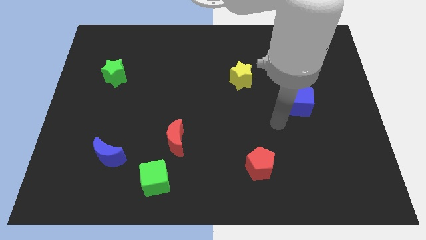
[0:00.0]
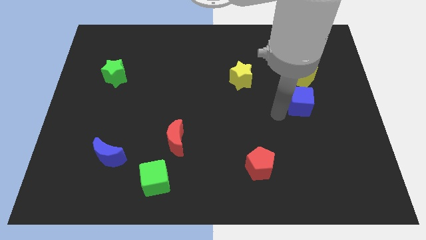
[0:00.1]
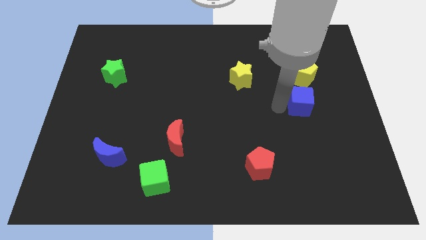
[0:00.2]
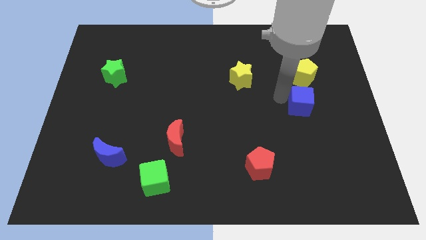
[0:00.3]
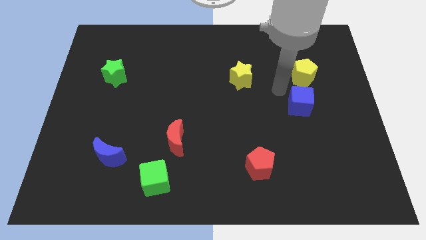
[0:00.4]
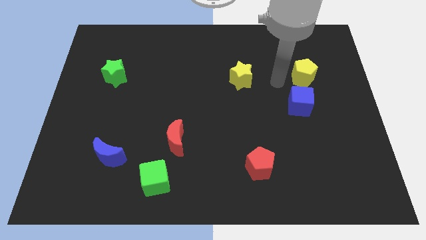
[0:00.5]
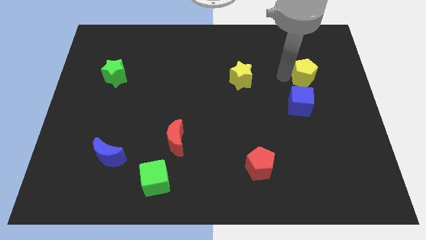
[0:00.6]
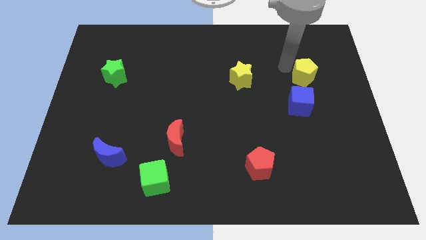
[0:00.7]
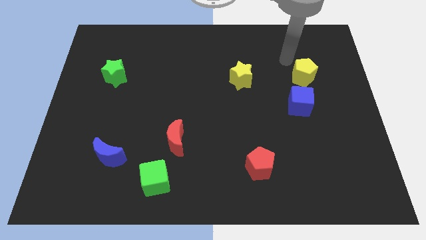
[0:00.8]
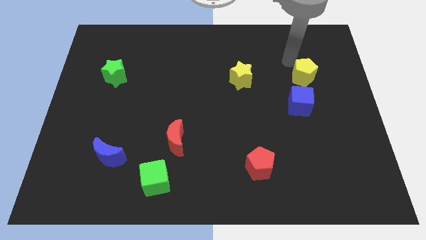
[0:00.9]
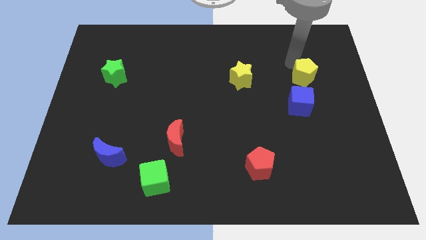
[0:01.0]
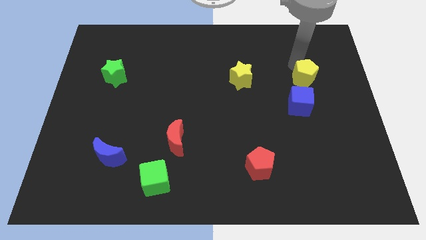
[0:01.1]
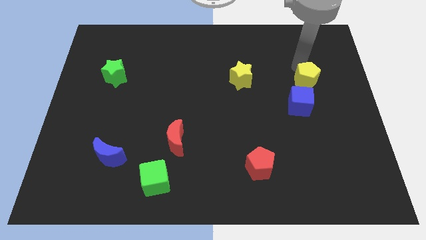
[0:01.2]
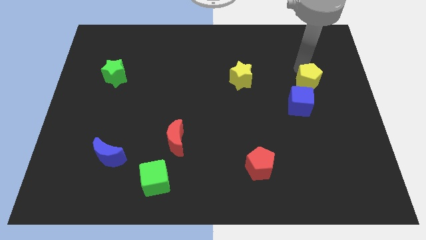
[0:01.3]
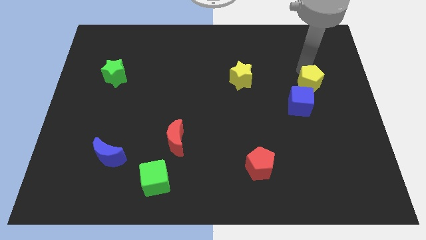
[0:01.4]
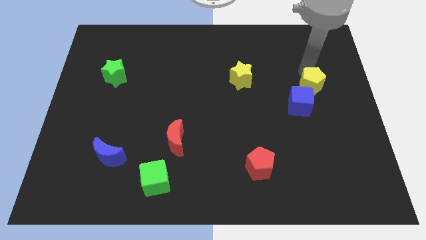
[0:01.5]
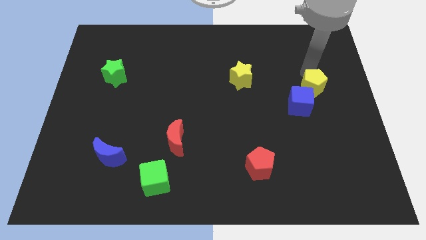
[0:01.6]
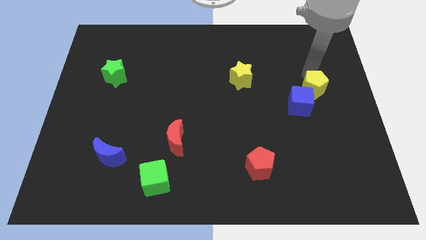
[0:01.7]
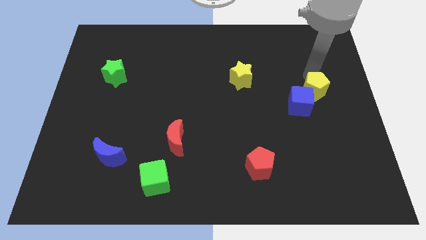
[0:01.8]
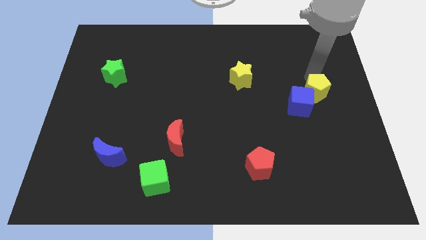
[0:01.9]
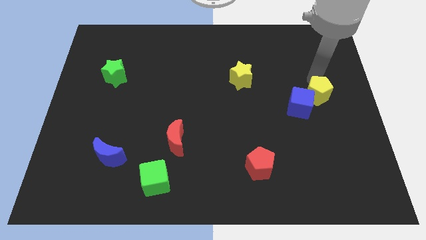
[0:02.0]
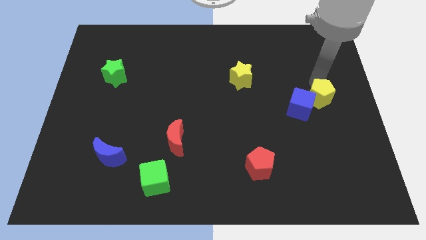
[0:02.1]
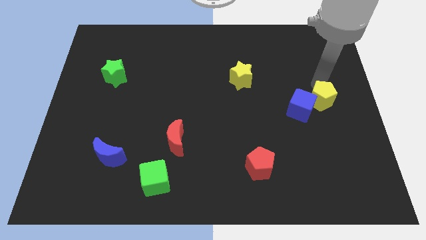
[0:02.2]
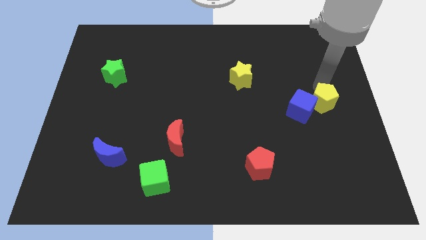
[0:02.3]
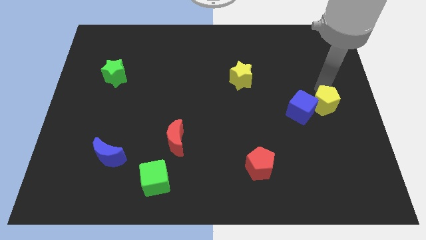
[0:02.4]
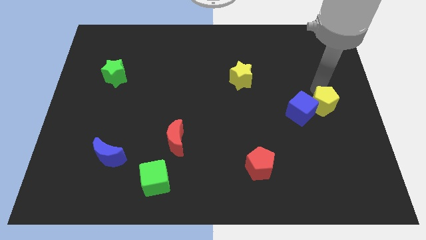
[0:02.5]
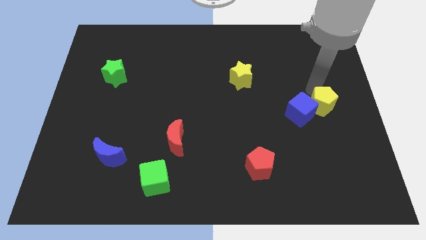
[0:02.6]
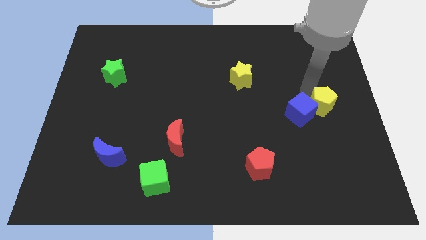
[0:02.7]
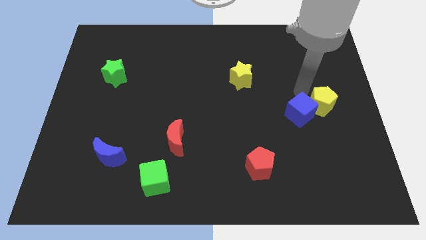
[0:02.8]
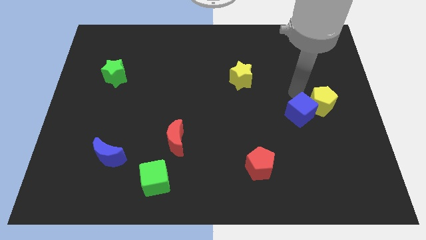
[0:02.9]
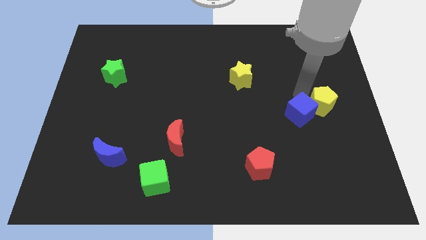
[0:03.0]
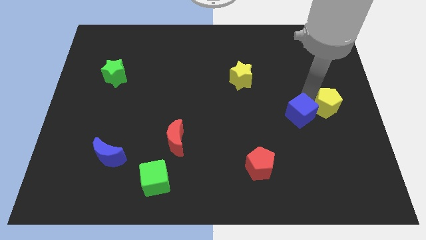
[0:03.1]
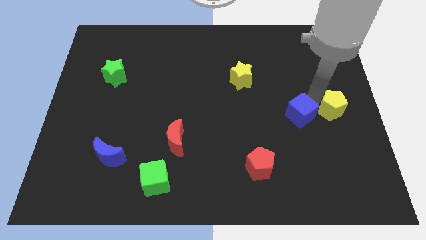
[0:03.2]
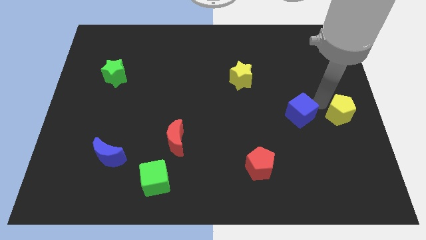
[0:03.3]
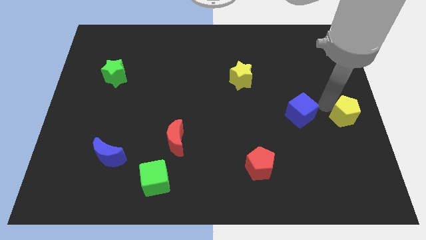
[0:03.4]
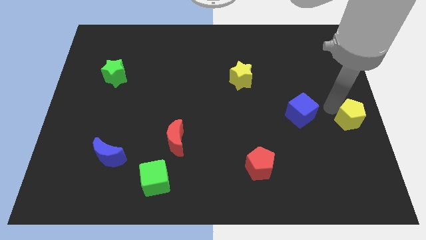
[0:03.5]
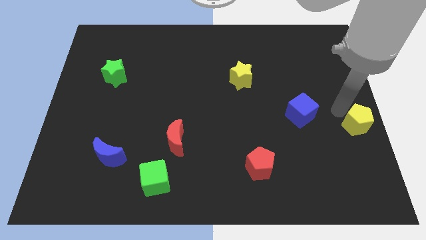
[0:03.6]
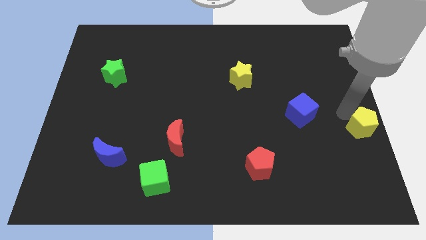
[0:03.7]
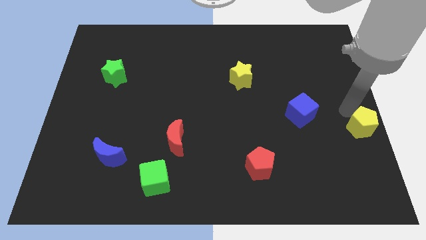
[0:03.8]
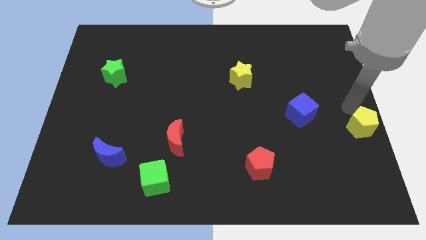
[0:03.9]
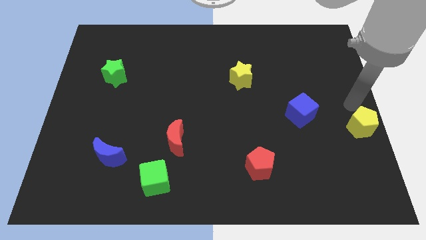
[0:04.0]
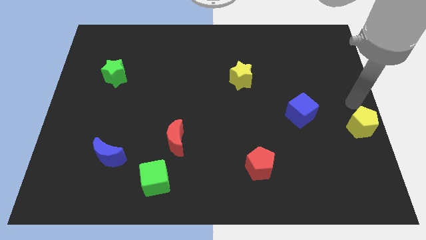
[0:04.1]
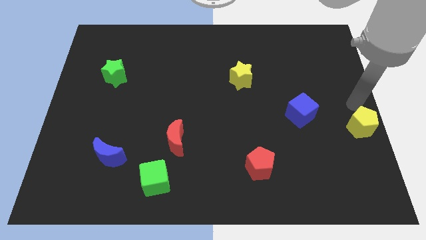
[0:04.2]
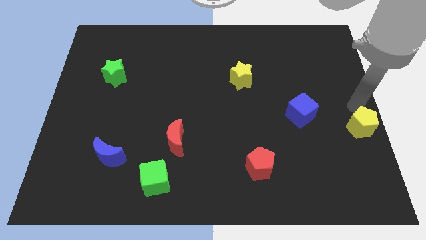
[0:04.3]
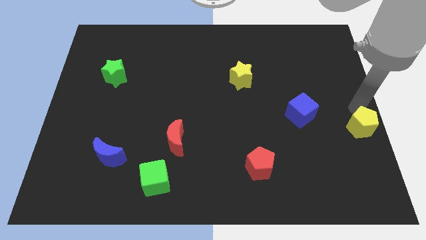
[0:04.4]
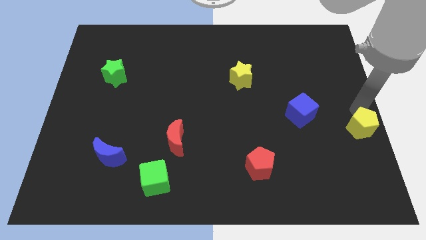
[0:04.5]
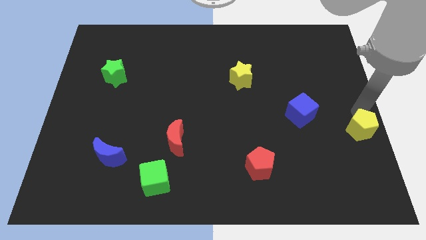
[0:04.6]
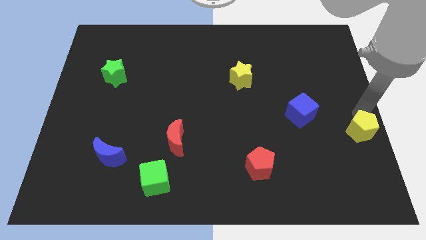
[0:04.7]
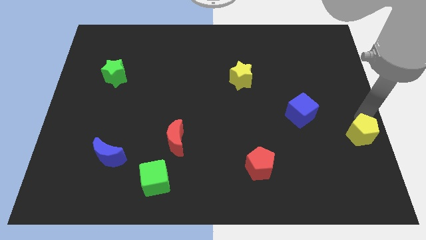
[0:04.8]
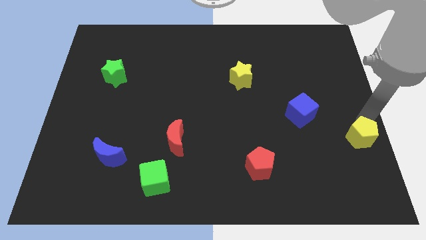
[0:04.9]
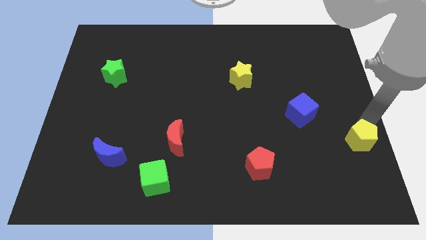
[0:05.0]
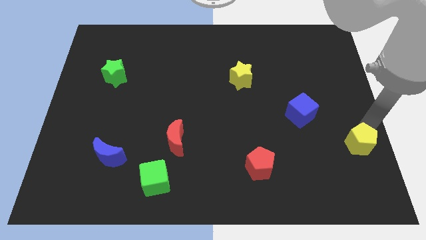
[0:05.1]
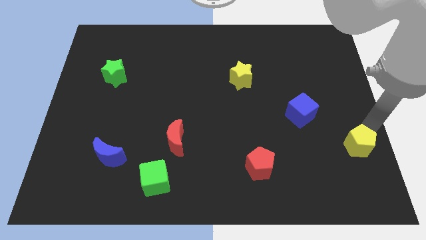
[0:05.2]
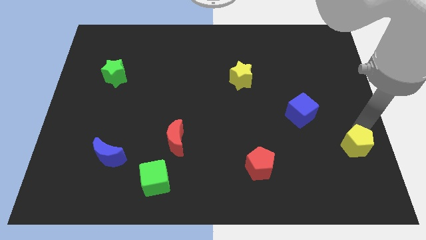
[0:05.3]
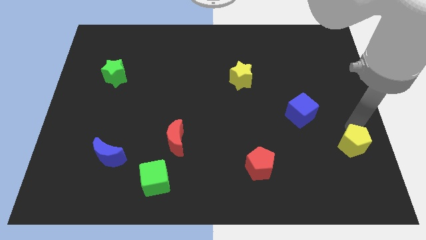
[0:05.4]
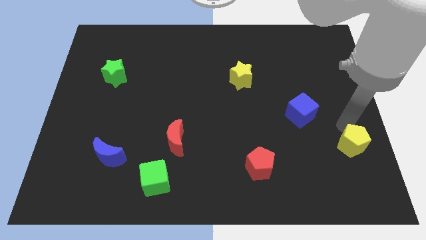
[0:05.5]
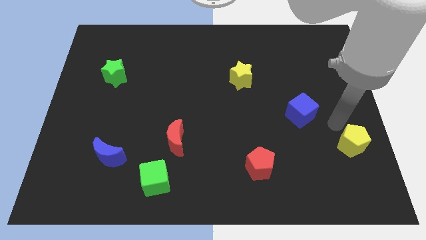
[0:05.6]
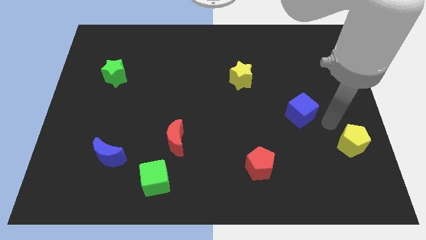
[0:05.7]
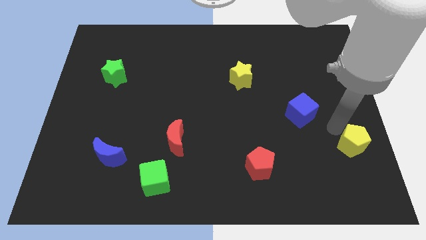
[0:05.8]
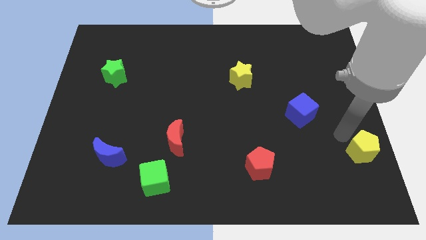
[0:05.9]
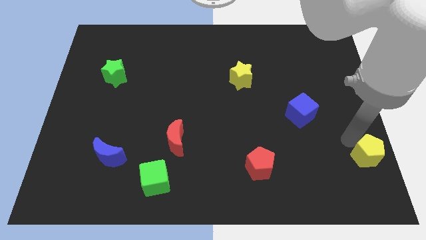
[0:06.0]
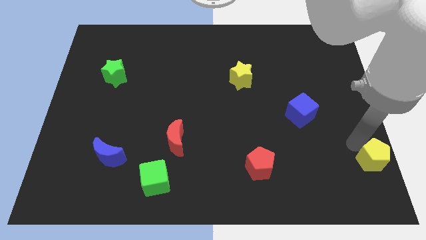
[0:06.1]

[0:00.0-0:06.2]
move the yellow pentagon to the lower right corner
